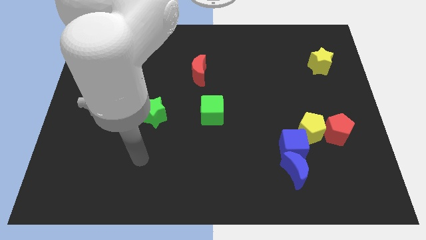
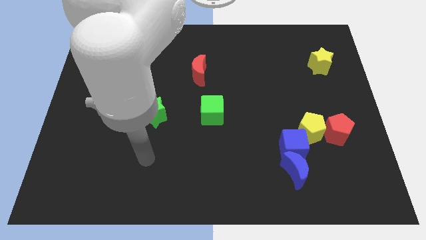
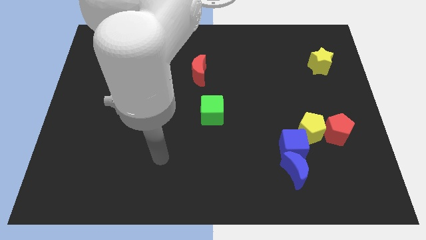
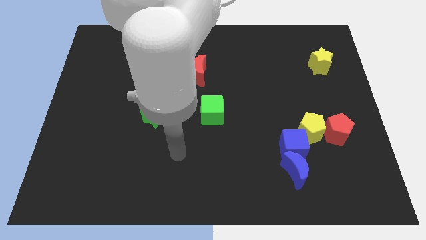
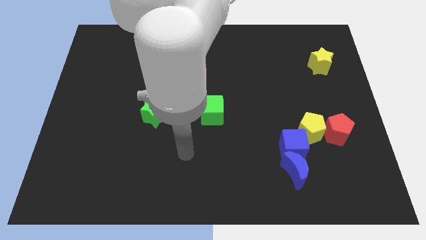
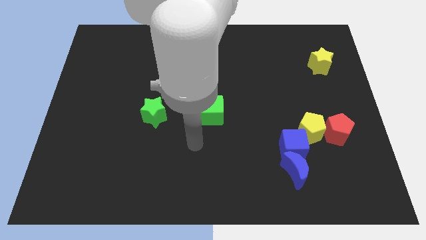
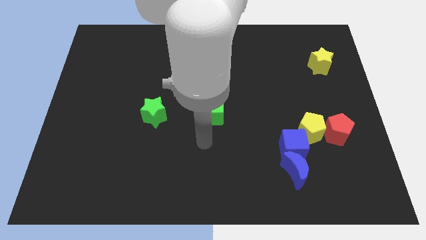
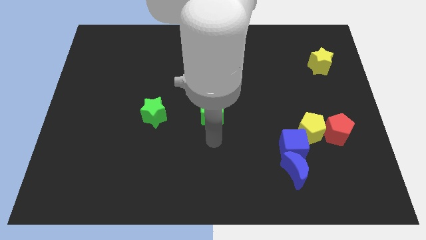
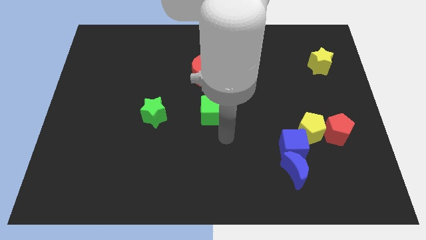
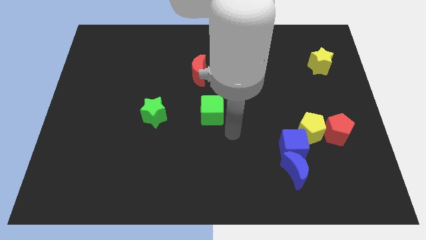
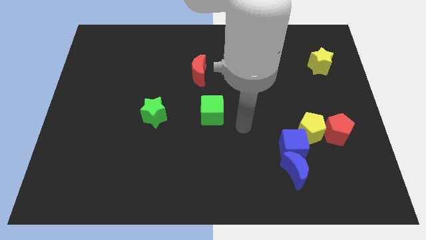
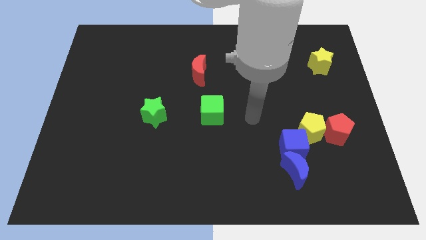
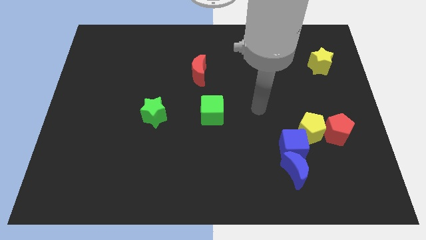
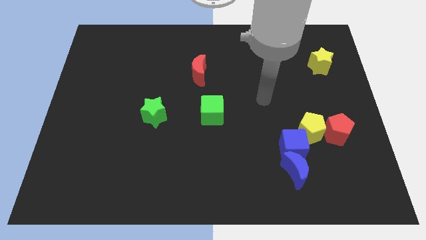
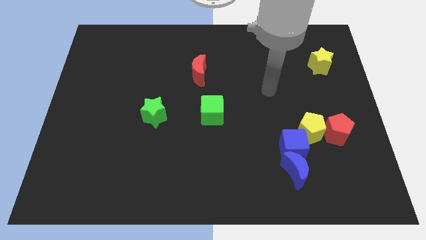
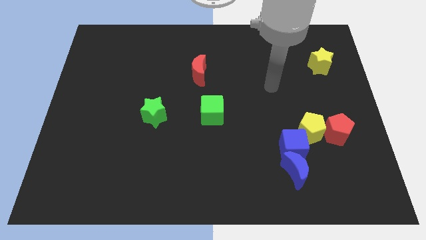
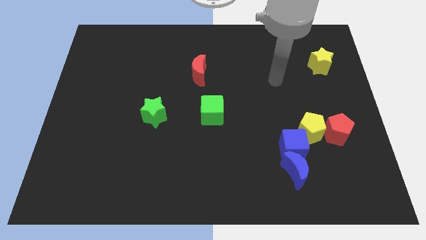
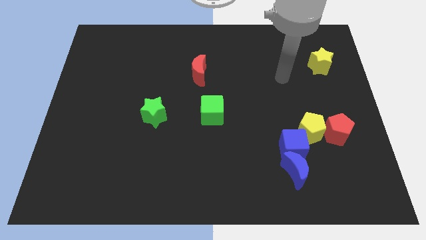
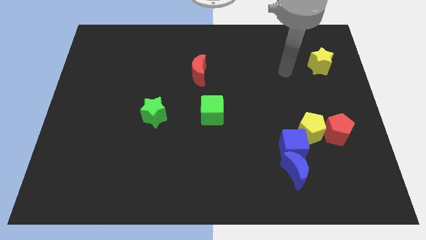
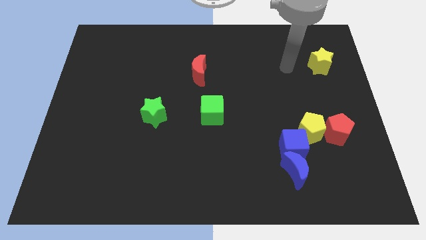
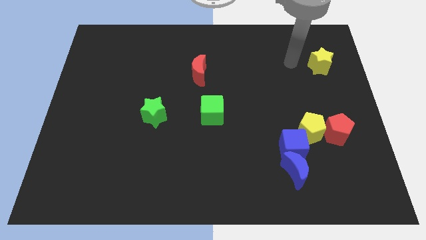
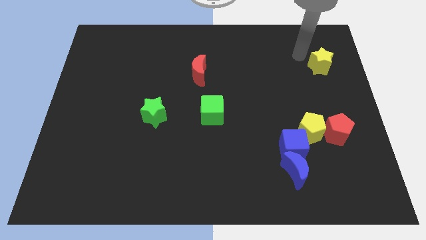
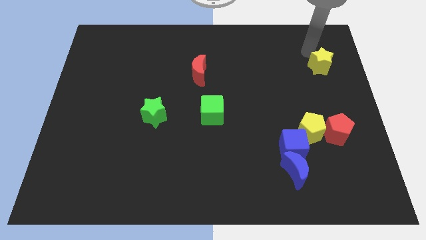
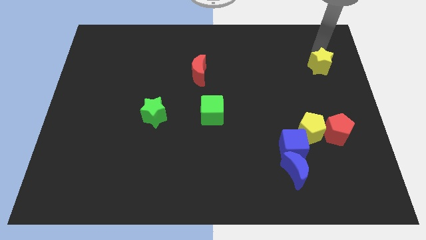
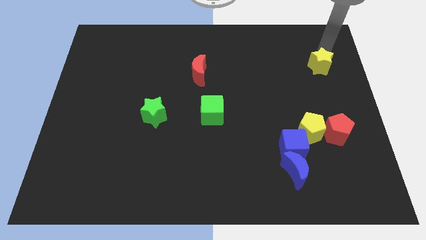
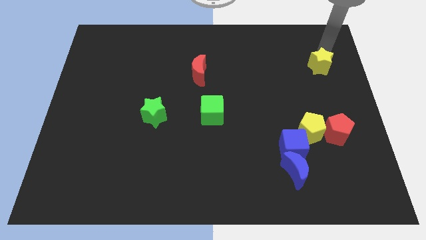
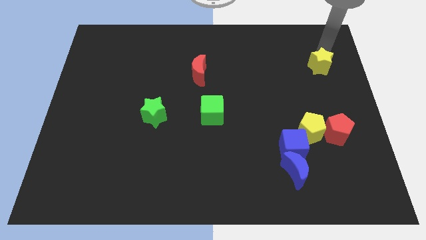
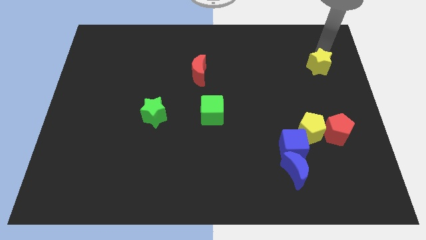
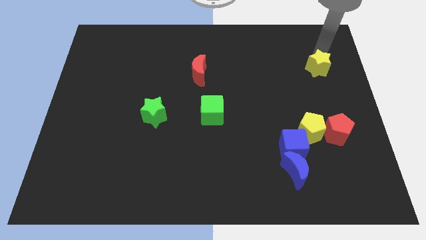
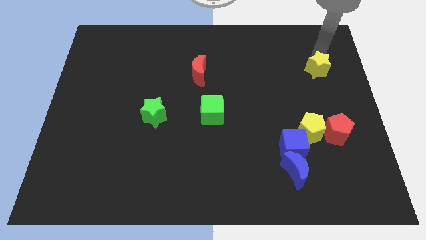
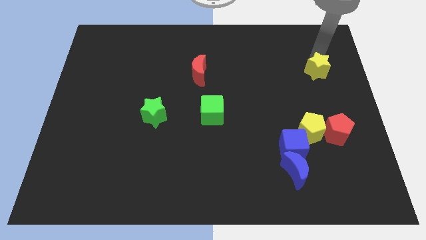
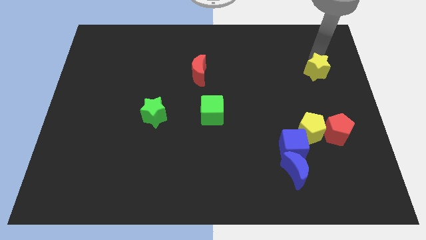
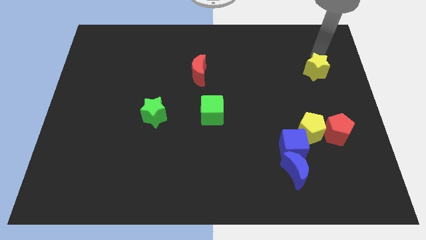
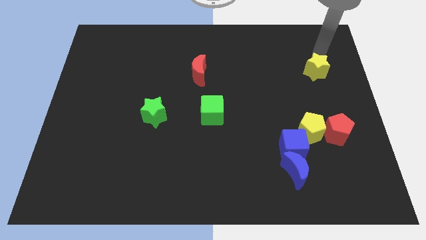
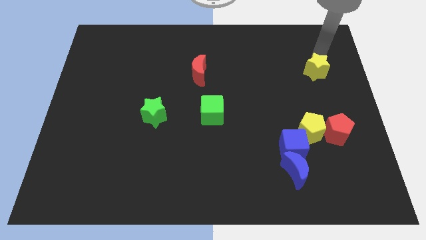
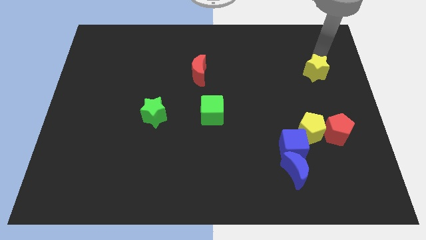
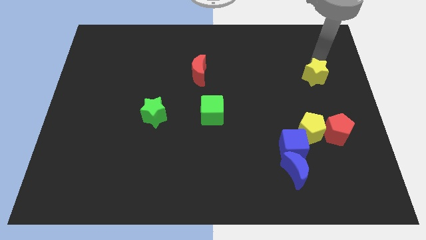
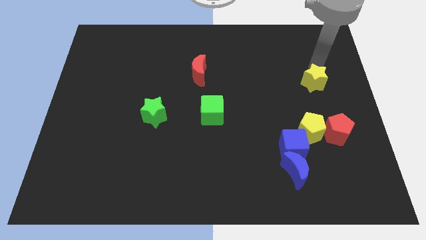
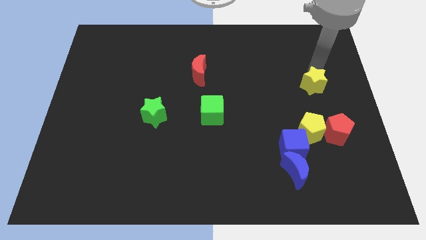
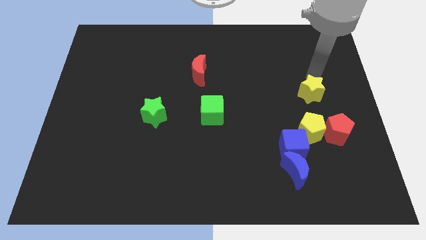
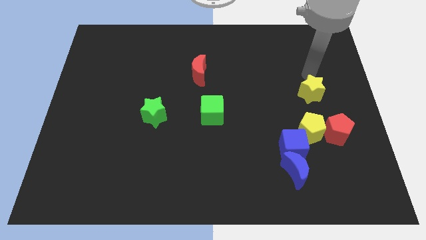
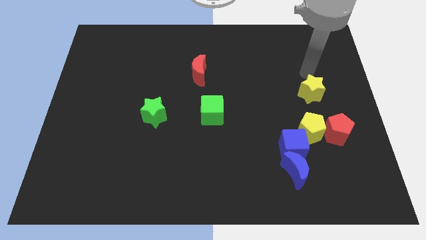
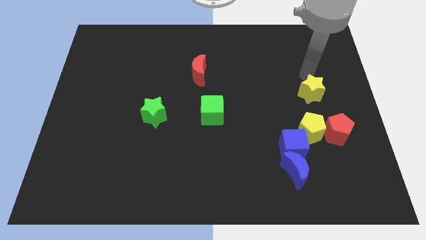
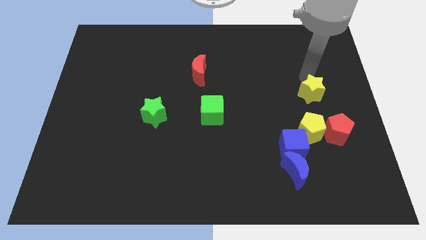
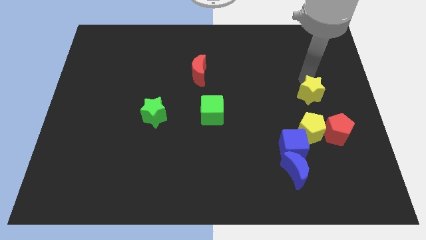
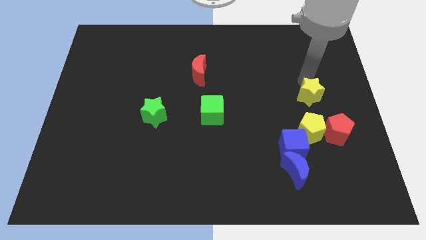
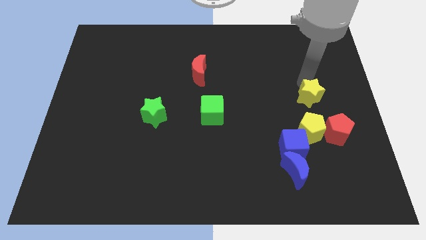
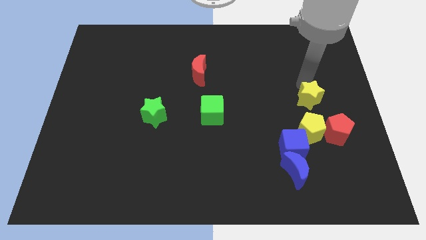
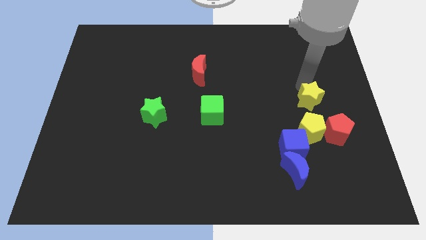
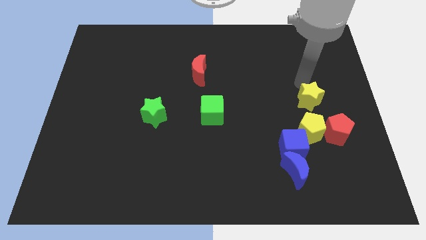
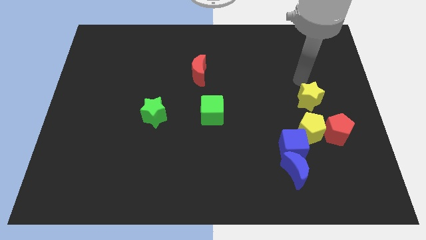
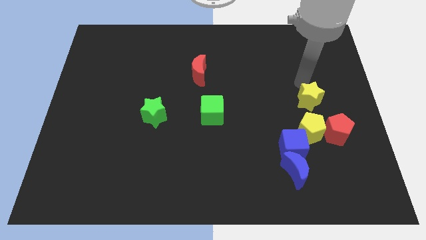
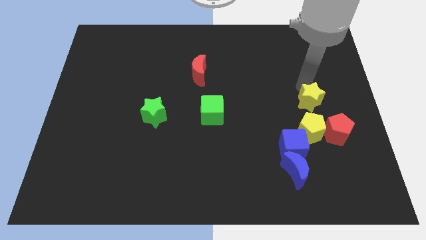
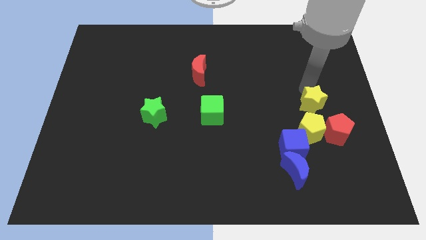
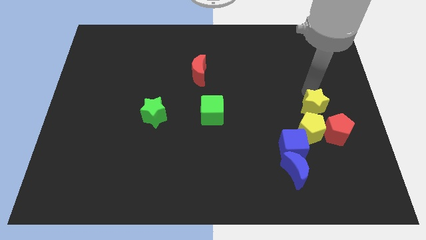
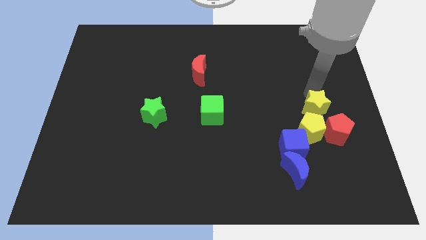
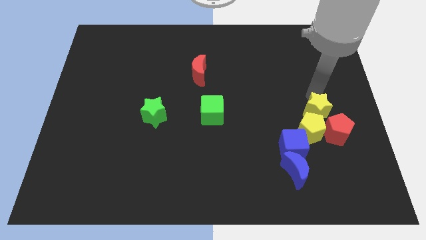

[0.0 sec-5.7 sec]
push the yellow star next to the yellow pentagon

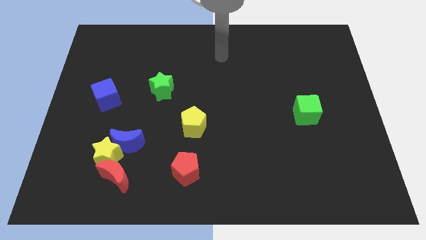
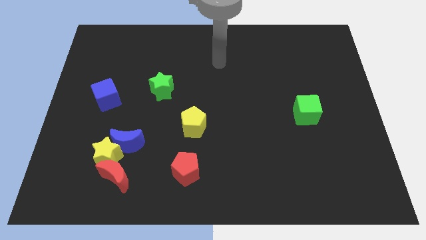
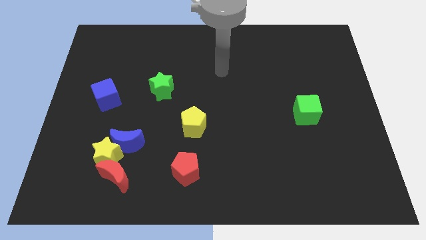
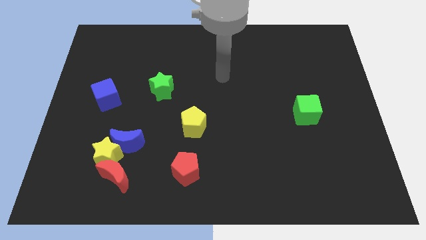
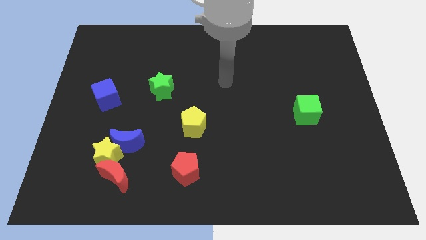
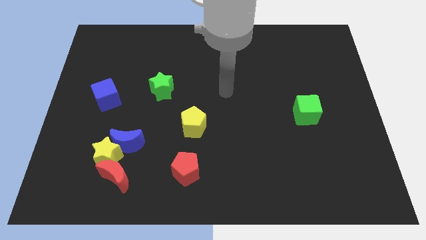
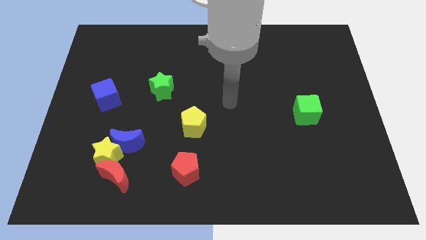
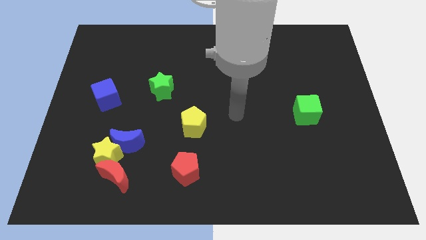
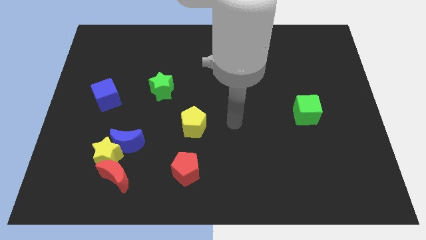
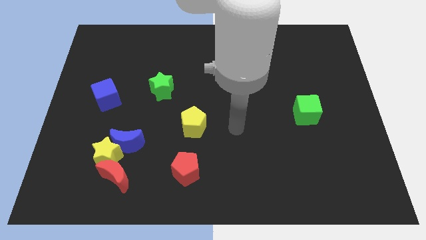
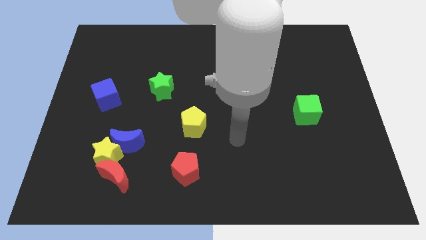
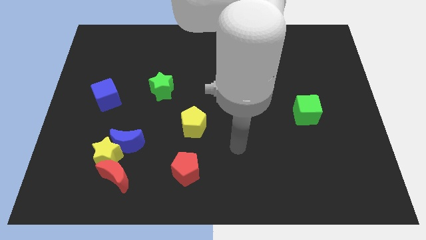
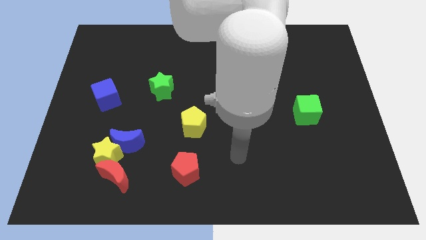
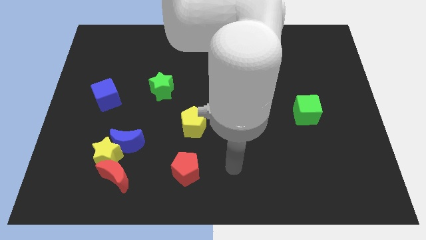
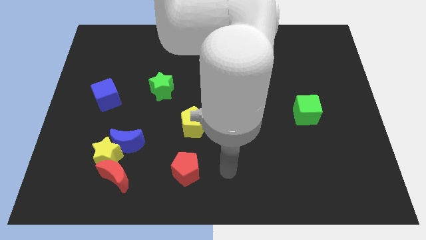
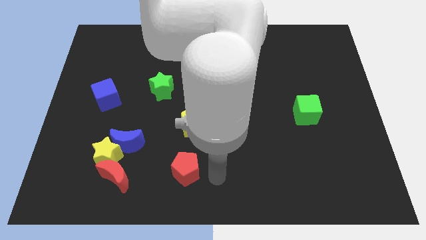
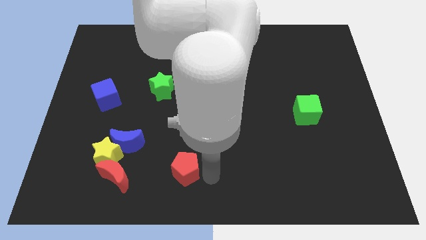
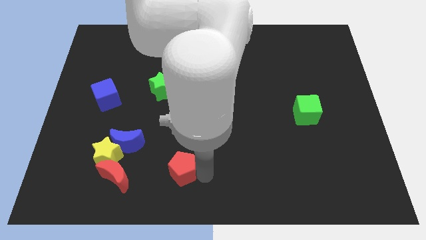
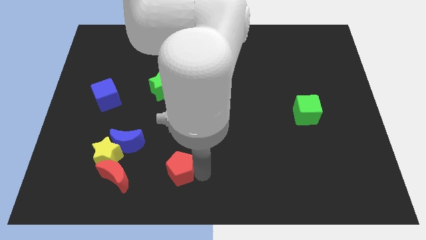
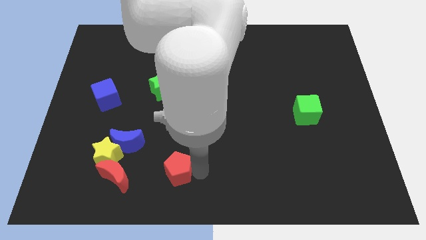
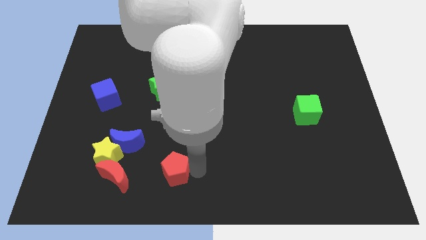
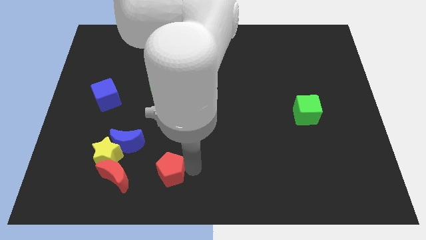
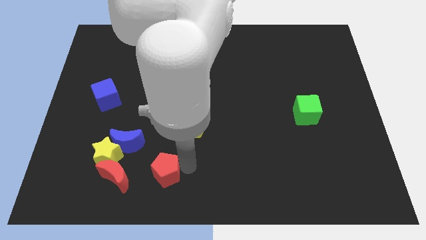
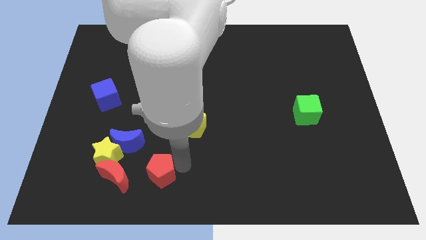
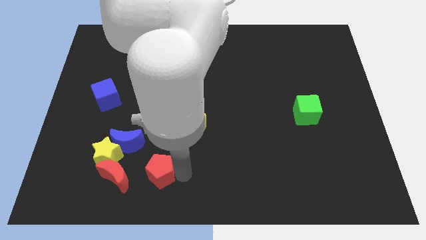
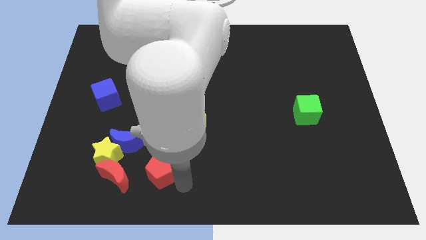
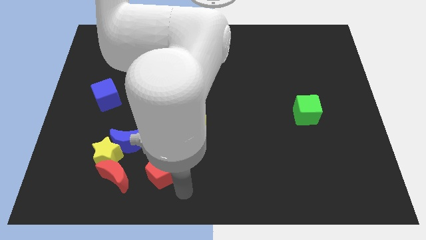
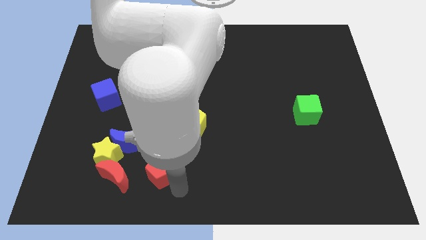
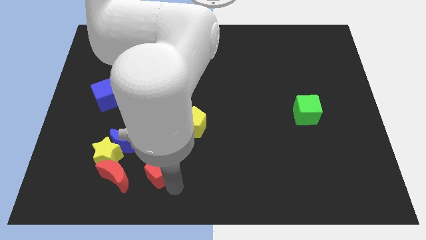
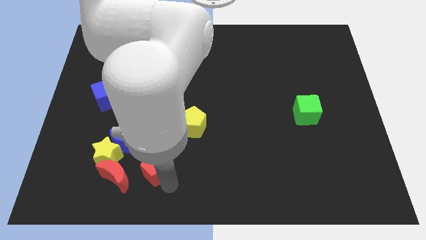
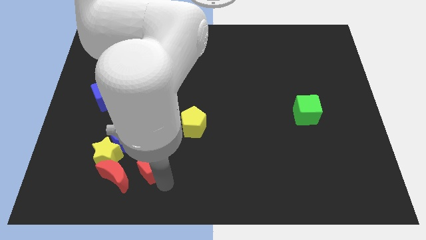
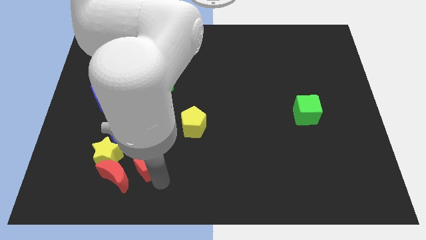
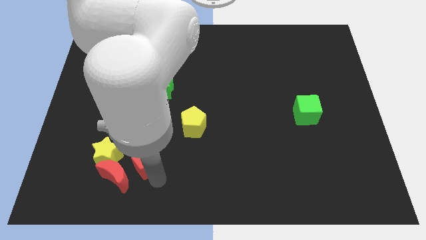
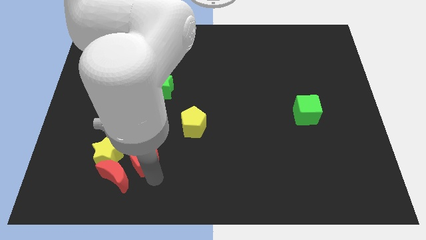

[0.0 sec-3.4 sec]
move the red pentagon towards the blue moon
